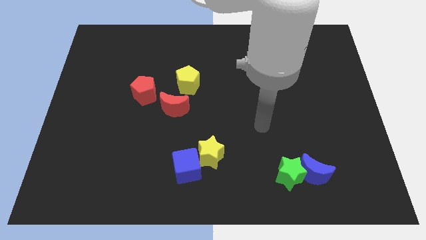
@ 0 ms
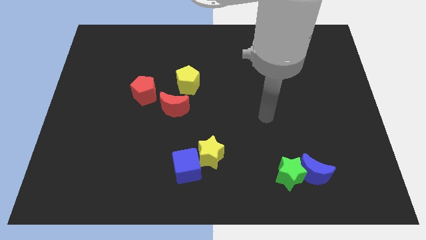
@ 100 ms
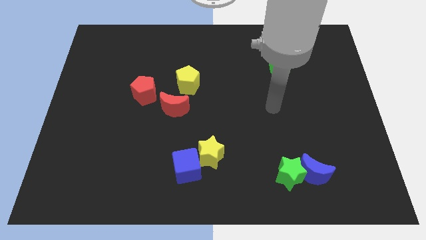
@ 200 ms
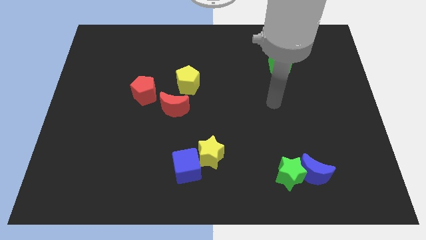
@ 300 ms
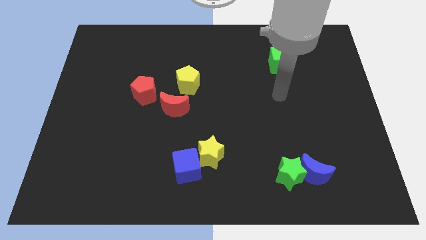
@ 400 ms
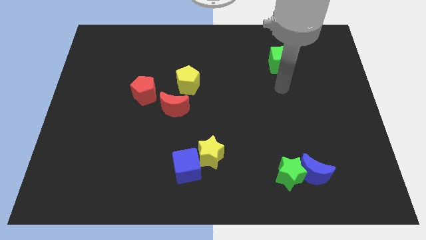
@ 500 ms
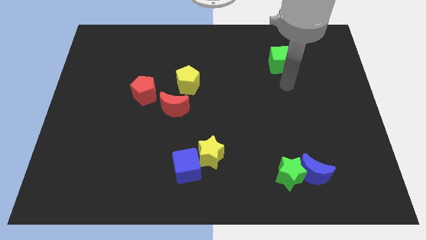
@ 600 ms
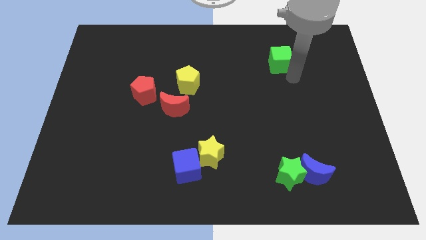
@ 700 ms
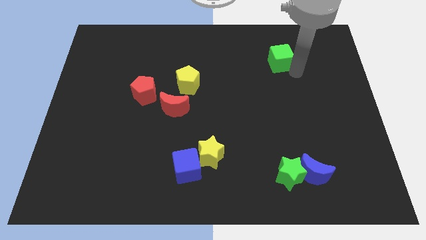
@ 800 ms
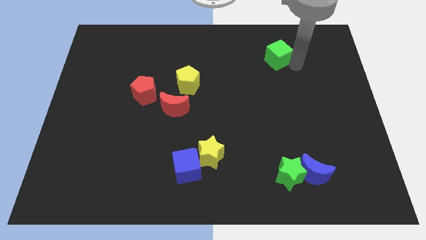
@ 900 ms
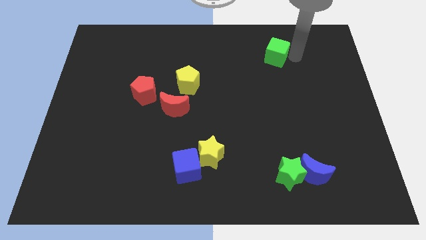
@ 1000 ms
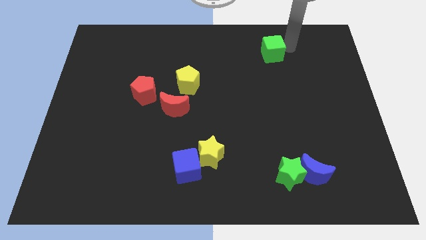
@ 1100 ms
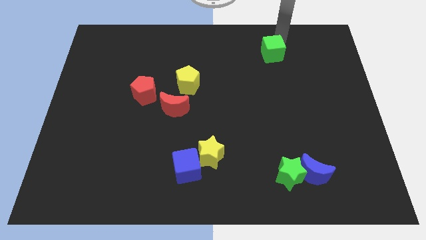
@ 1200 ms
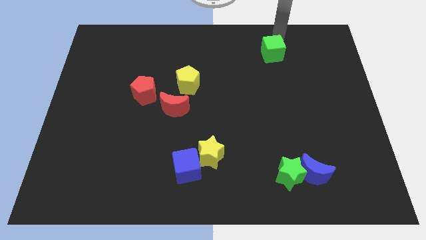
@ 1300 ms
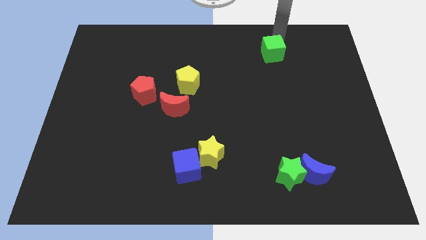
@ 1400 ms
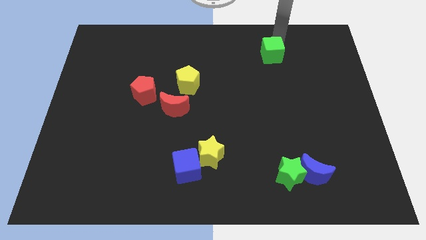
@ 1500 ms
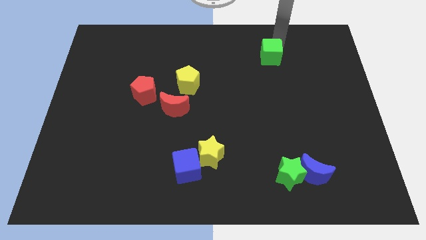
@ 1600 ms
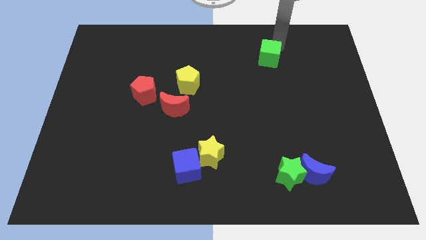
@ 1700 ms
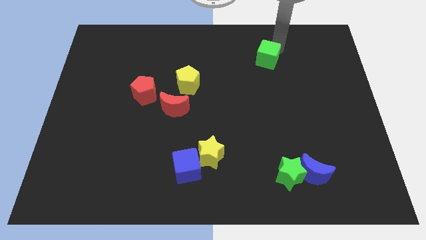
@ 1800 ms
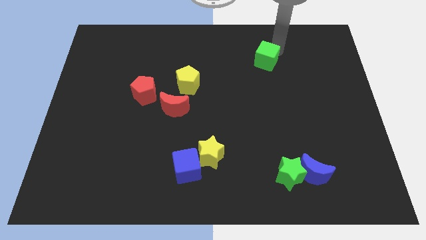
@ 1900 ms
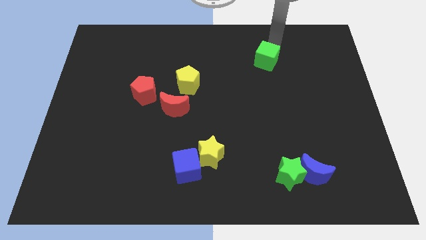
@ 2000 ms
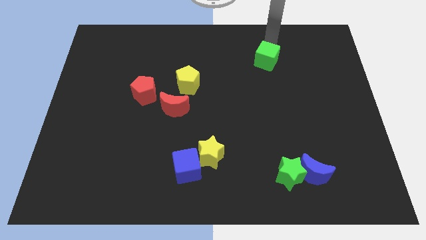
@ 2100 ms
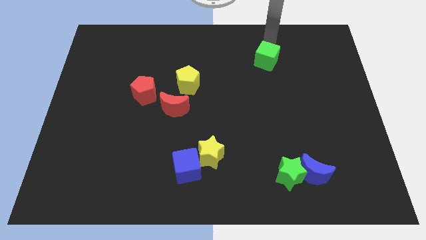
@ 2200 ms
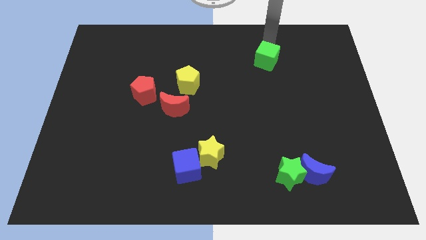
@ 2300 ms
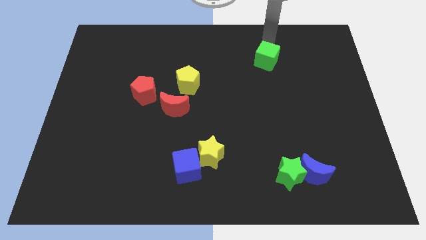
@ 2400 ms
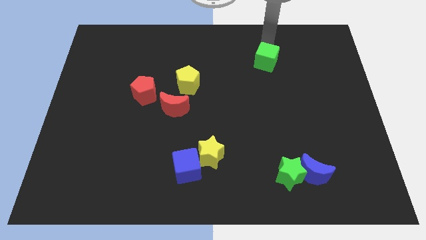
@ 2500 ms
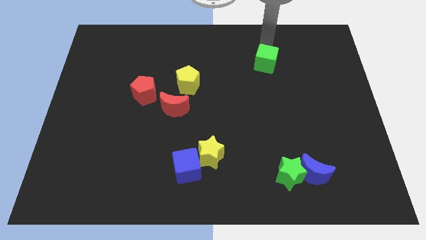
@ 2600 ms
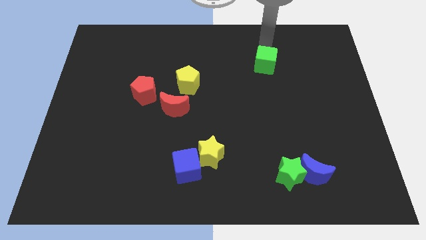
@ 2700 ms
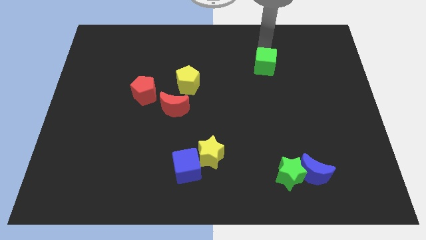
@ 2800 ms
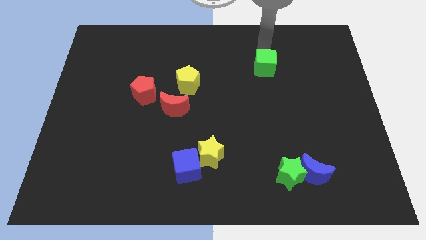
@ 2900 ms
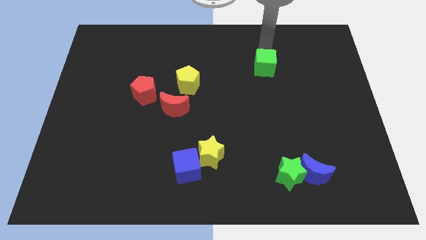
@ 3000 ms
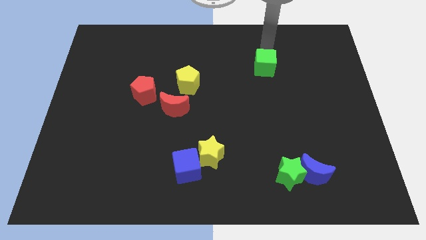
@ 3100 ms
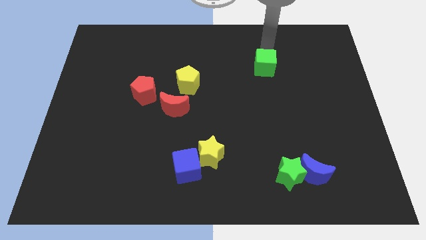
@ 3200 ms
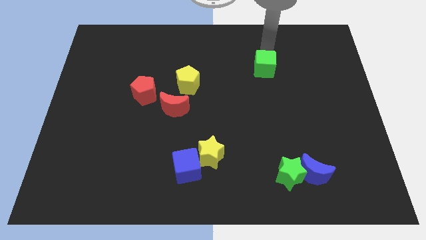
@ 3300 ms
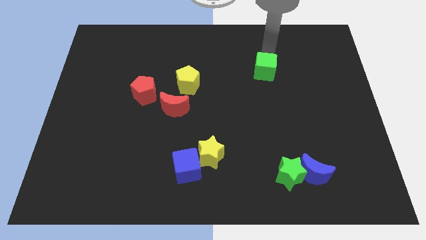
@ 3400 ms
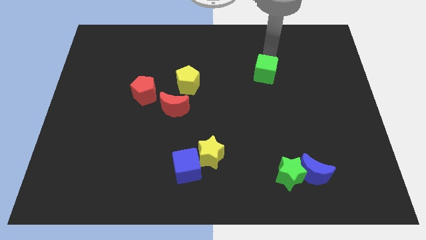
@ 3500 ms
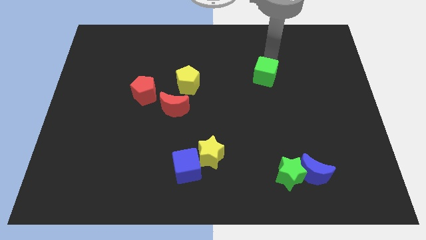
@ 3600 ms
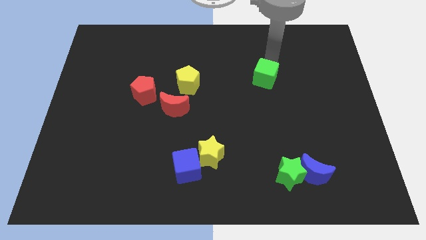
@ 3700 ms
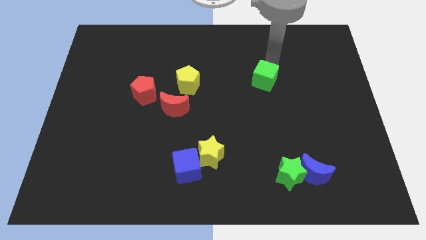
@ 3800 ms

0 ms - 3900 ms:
move the green cube a little downwards and to the left diagonally

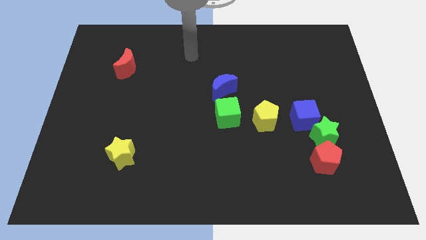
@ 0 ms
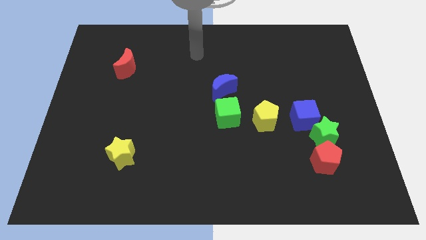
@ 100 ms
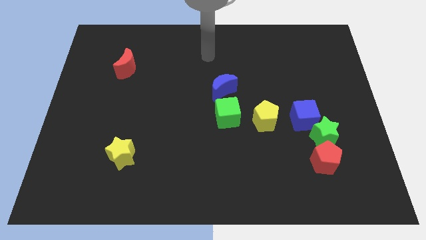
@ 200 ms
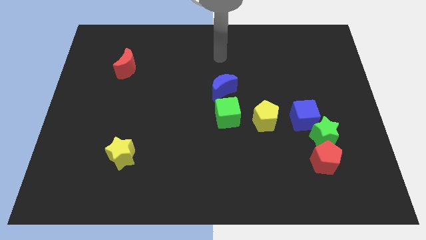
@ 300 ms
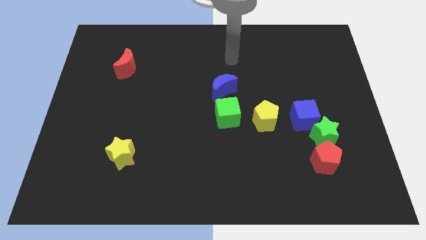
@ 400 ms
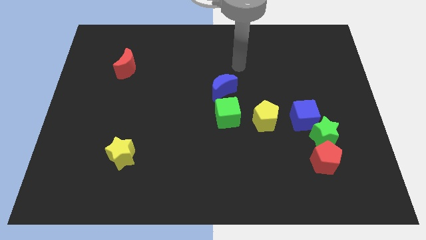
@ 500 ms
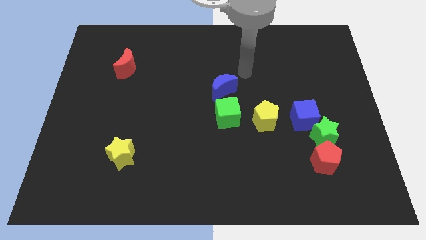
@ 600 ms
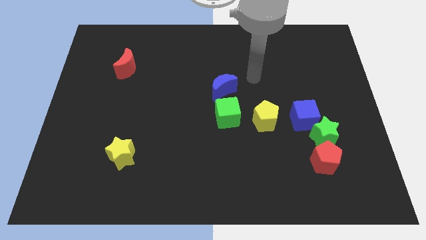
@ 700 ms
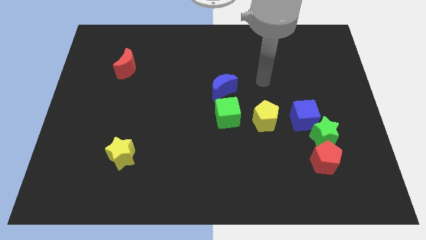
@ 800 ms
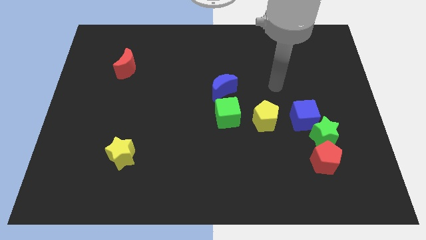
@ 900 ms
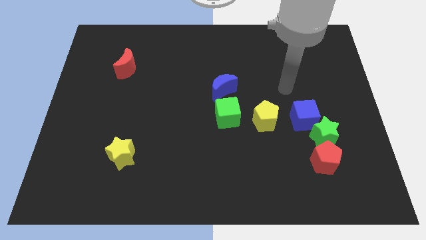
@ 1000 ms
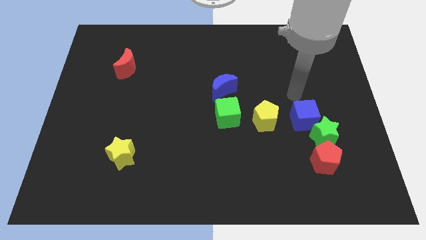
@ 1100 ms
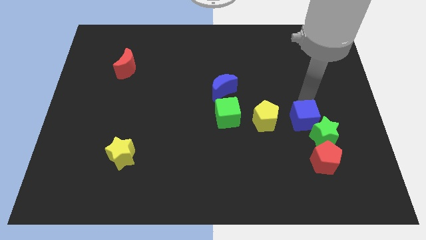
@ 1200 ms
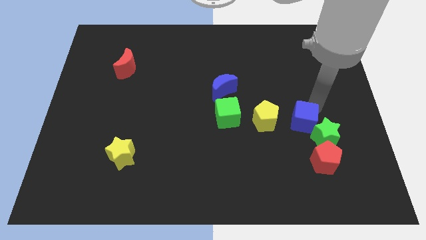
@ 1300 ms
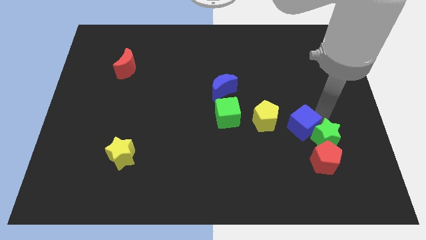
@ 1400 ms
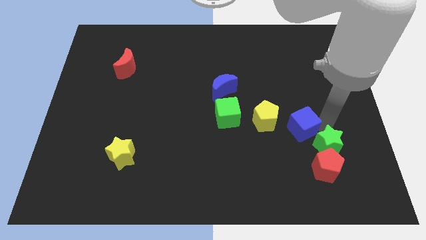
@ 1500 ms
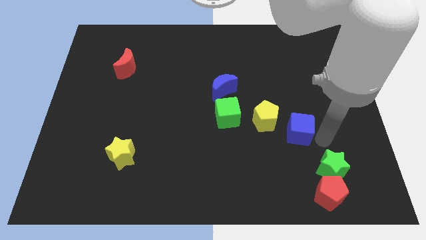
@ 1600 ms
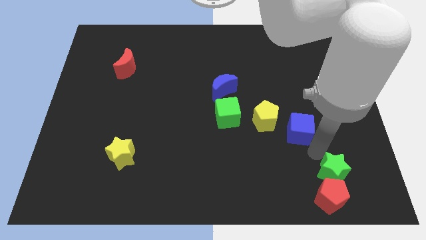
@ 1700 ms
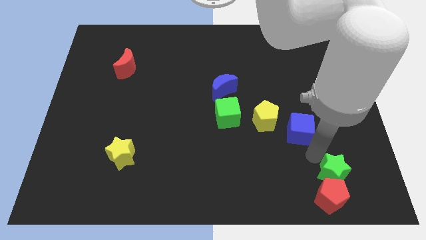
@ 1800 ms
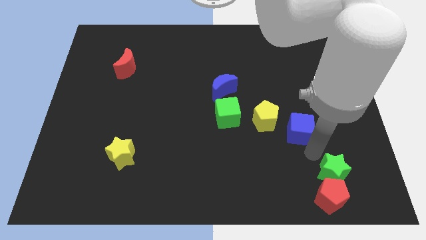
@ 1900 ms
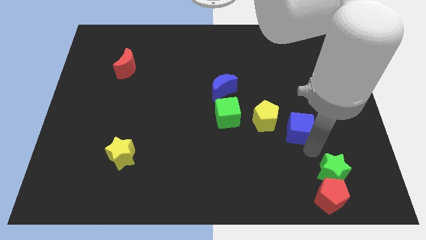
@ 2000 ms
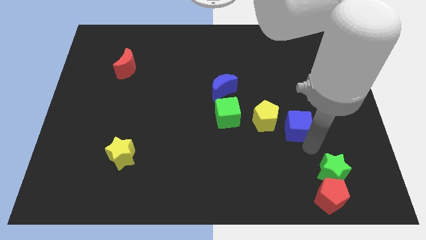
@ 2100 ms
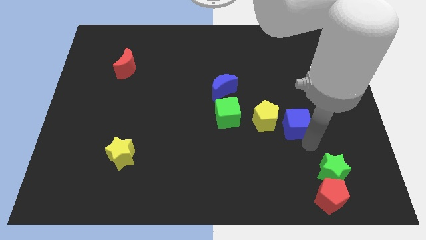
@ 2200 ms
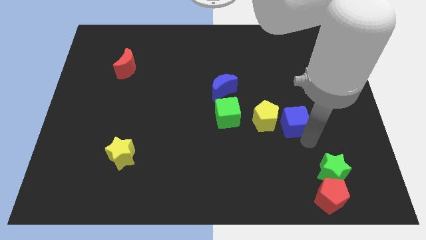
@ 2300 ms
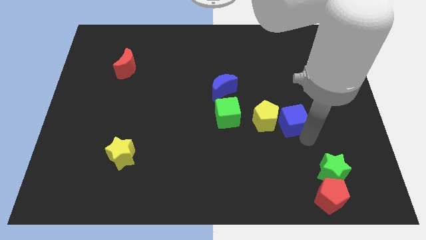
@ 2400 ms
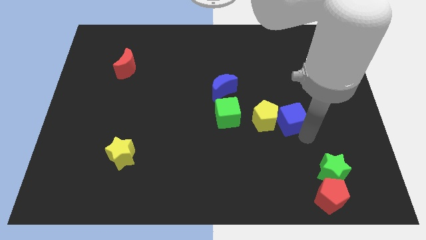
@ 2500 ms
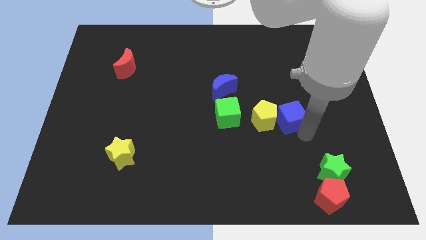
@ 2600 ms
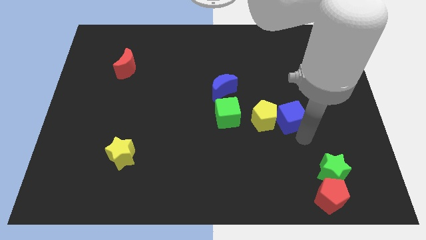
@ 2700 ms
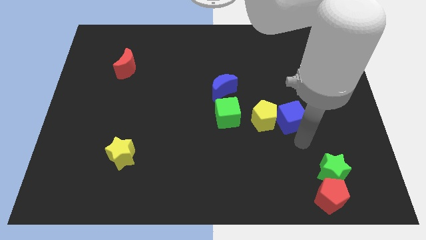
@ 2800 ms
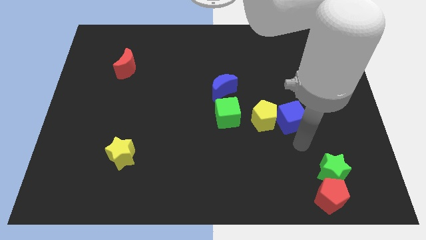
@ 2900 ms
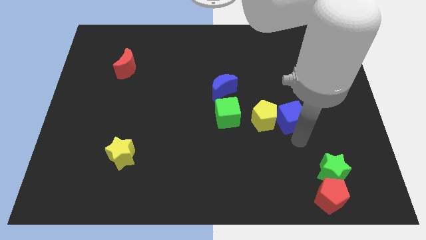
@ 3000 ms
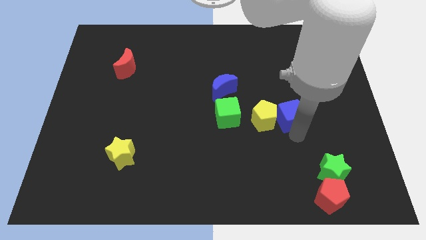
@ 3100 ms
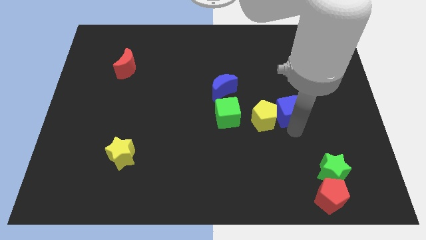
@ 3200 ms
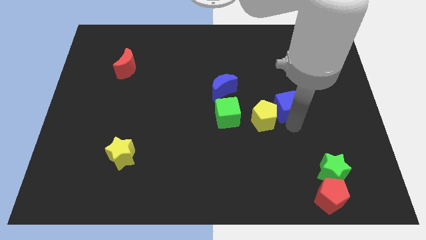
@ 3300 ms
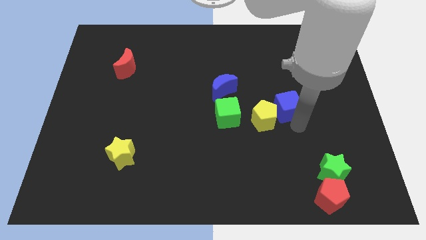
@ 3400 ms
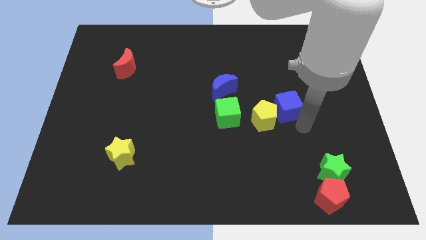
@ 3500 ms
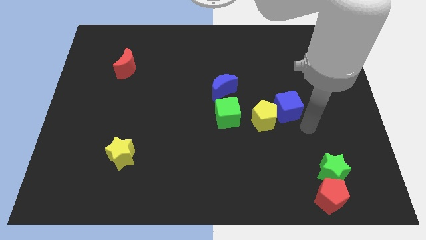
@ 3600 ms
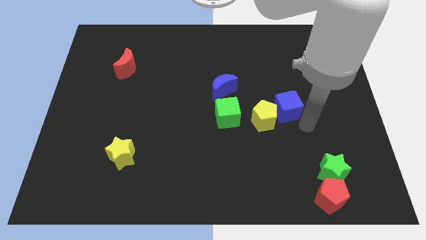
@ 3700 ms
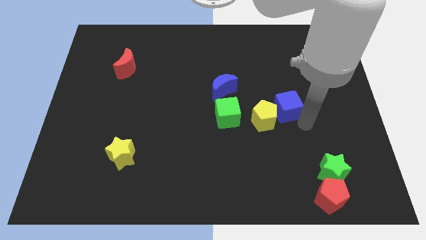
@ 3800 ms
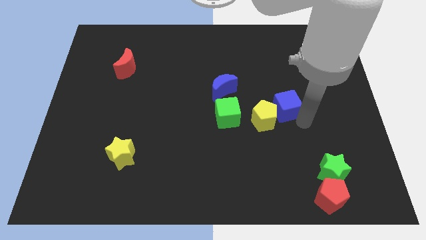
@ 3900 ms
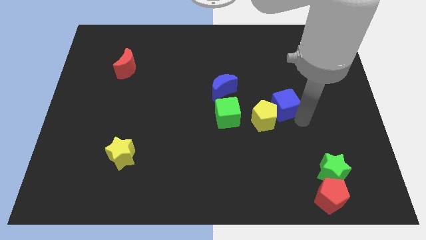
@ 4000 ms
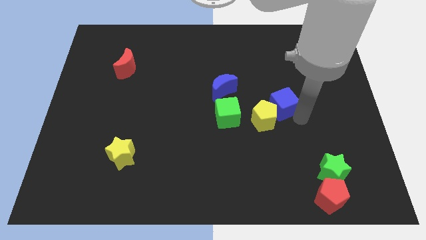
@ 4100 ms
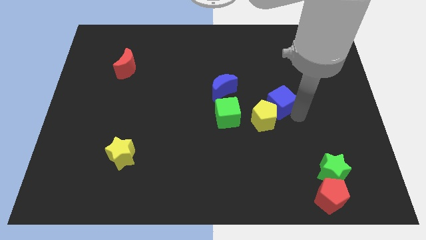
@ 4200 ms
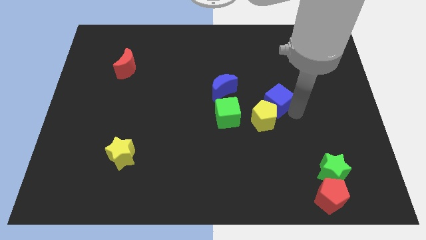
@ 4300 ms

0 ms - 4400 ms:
slightly slide the blue cube up and to the left

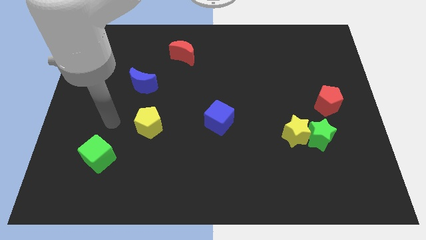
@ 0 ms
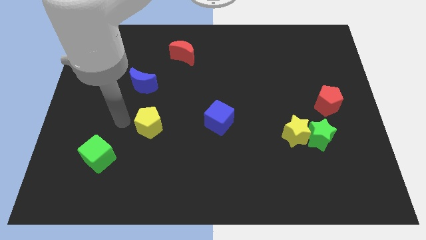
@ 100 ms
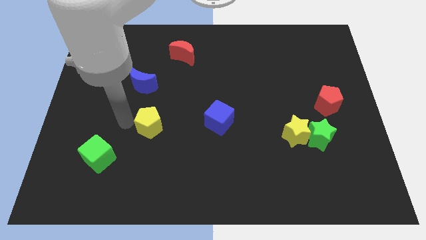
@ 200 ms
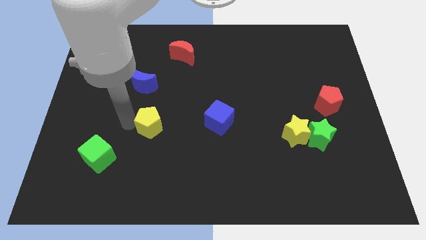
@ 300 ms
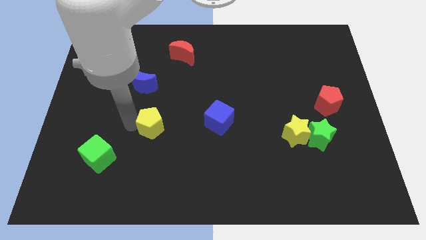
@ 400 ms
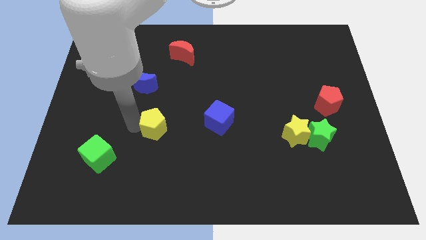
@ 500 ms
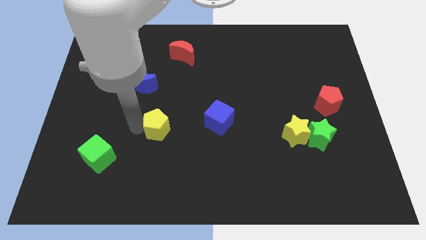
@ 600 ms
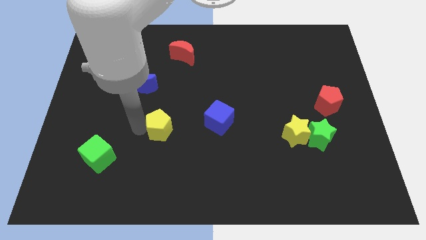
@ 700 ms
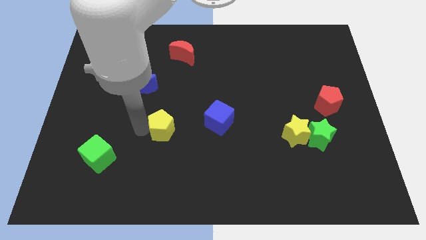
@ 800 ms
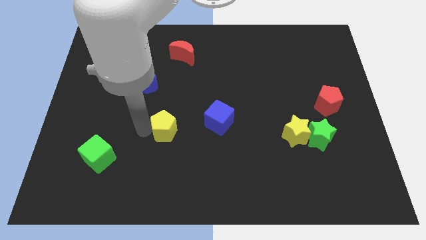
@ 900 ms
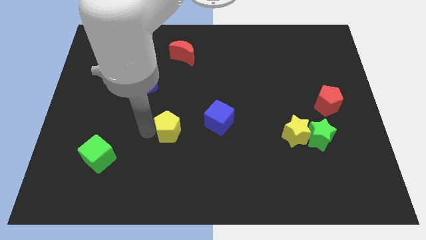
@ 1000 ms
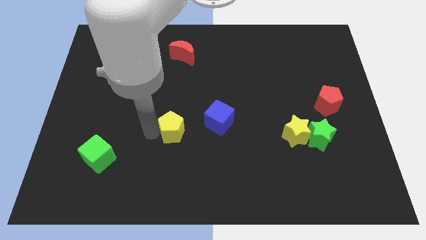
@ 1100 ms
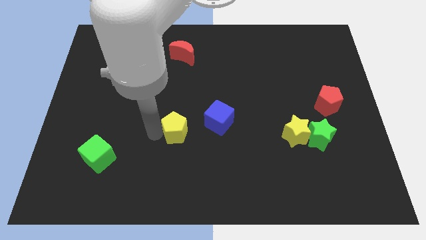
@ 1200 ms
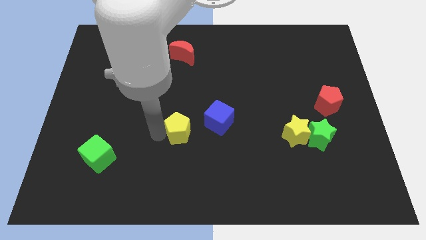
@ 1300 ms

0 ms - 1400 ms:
move the yellow pentagon a little right
